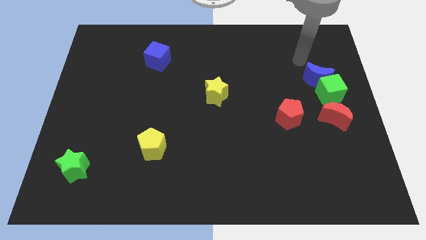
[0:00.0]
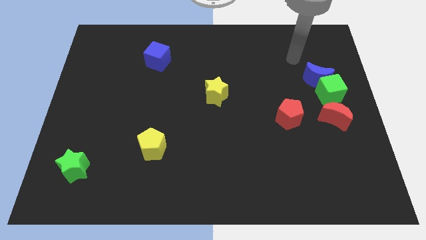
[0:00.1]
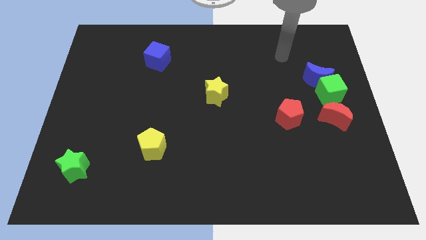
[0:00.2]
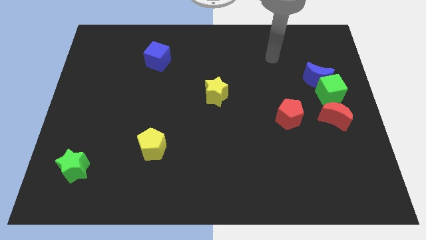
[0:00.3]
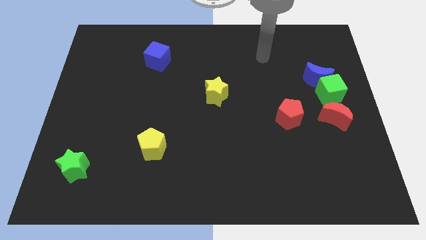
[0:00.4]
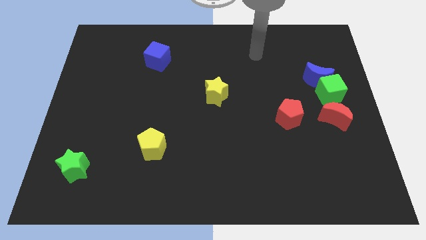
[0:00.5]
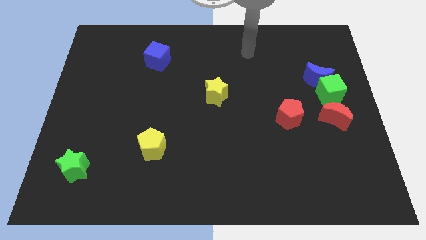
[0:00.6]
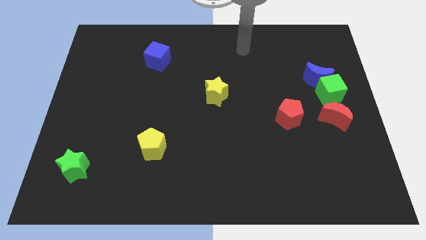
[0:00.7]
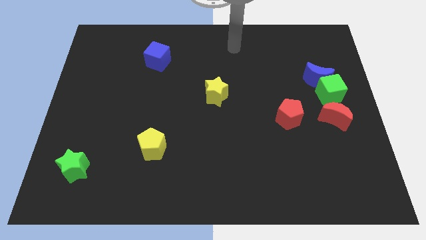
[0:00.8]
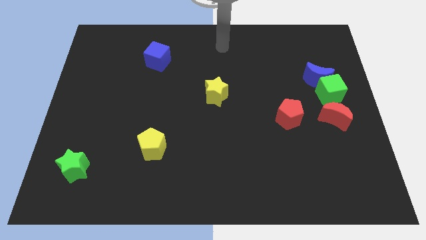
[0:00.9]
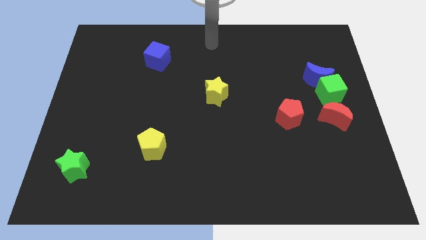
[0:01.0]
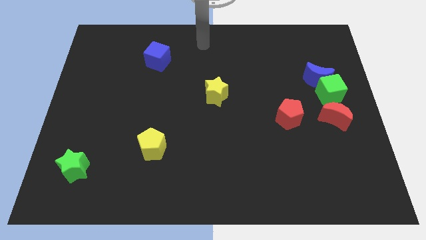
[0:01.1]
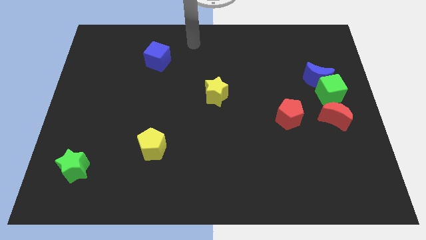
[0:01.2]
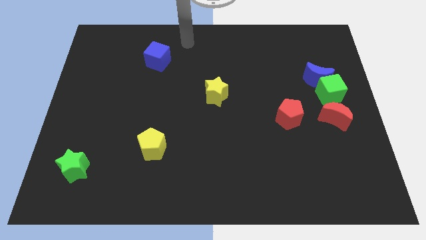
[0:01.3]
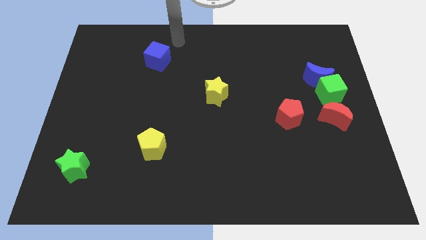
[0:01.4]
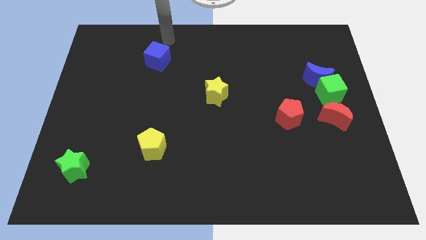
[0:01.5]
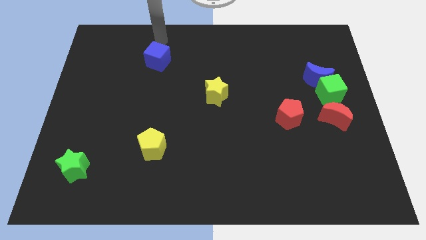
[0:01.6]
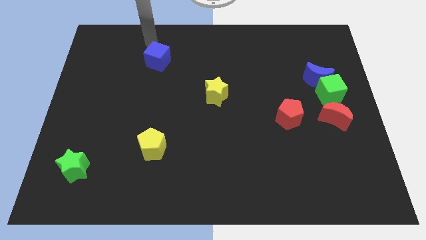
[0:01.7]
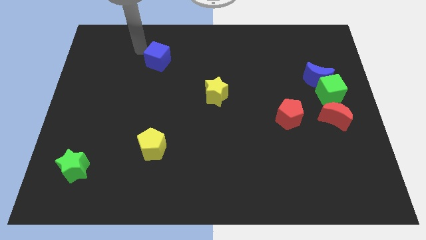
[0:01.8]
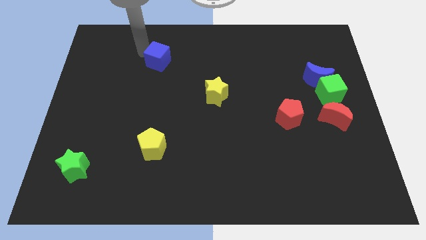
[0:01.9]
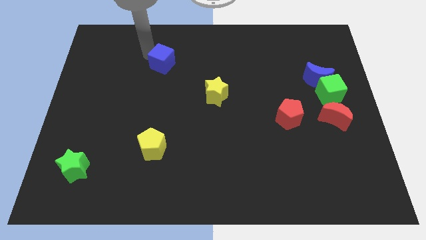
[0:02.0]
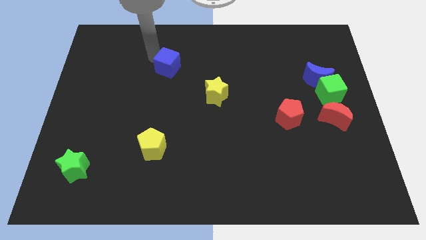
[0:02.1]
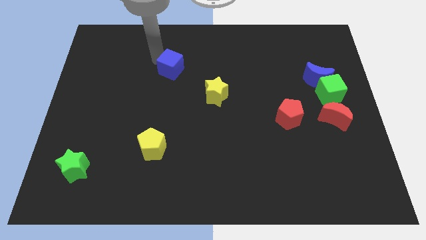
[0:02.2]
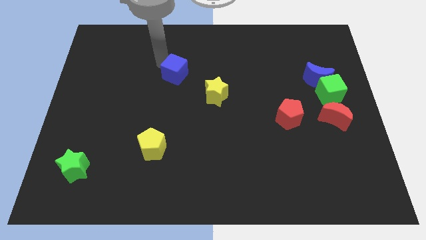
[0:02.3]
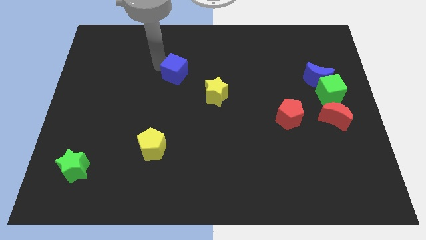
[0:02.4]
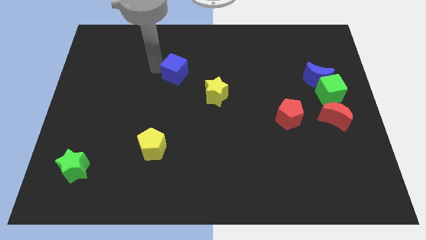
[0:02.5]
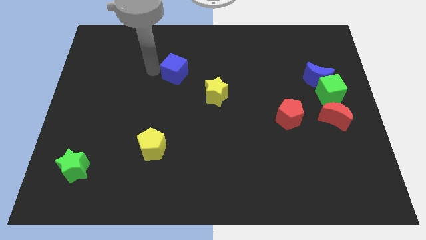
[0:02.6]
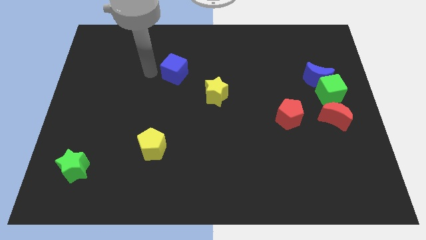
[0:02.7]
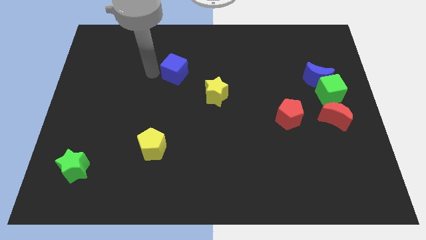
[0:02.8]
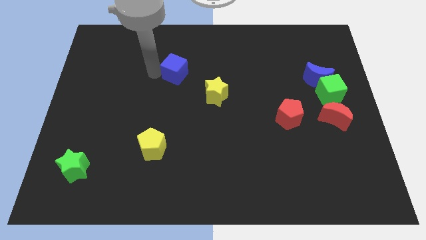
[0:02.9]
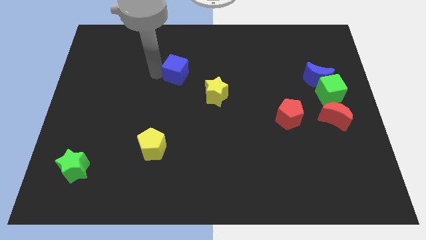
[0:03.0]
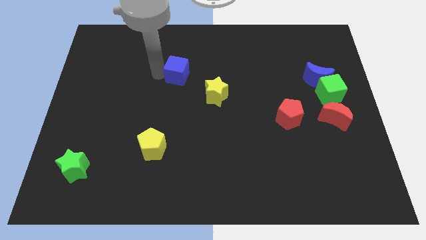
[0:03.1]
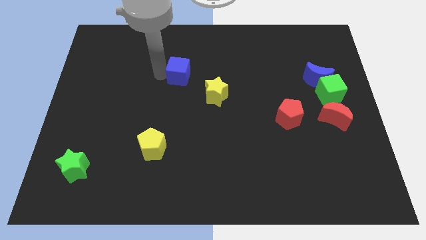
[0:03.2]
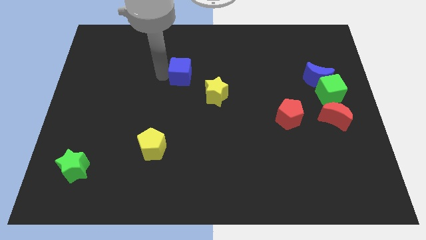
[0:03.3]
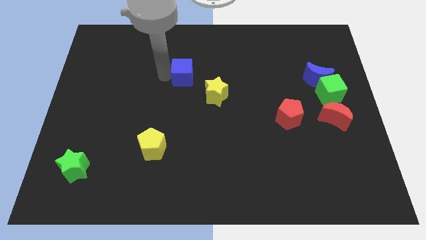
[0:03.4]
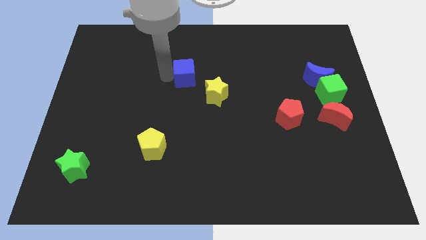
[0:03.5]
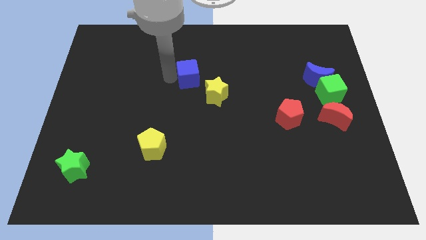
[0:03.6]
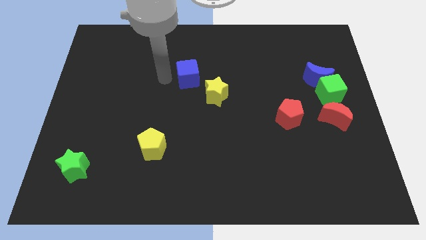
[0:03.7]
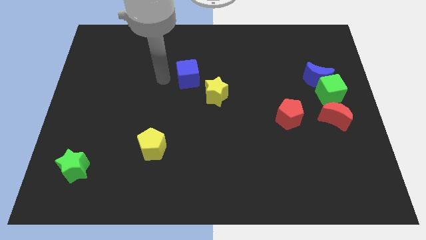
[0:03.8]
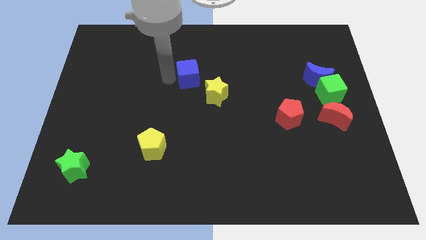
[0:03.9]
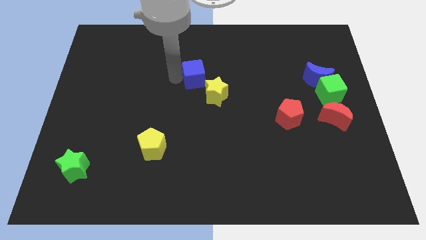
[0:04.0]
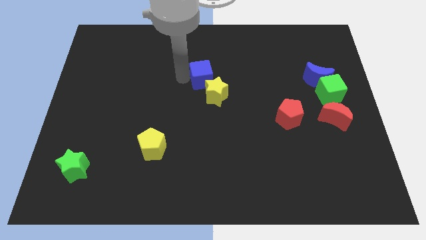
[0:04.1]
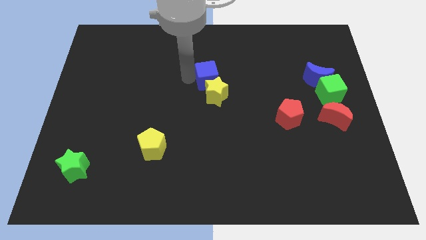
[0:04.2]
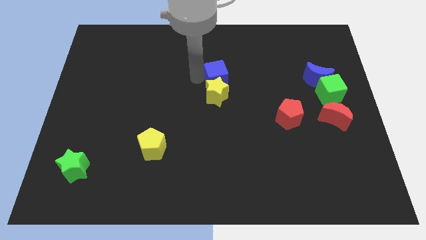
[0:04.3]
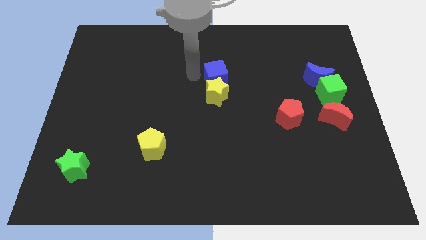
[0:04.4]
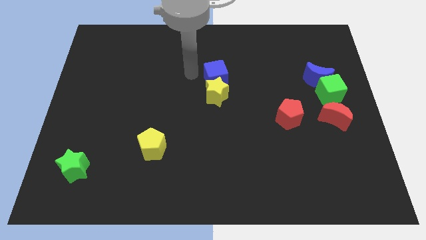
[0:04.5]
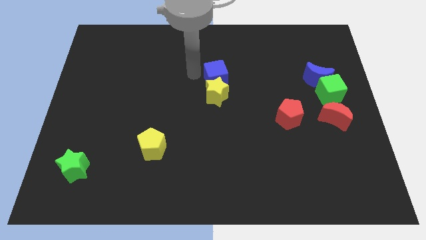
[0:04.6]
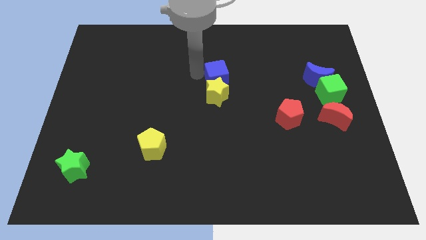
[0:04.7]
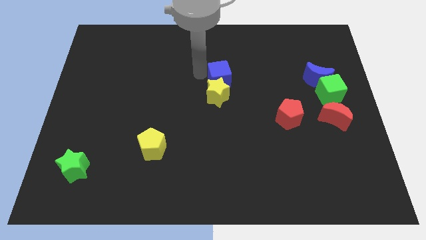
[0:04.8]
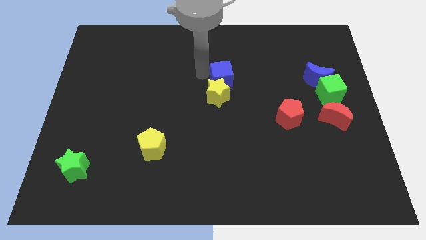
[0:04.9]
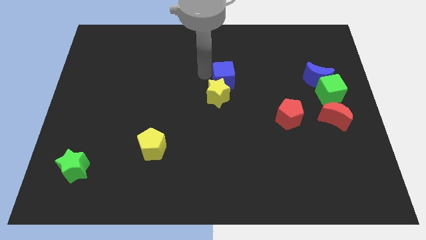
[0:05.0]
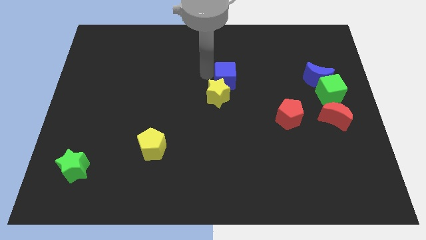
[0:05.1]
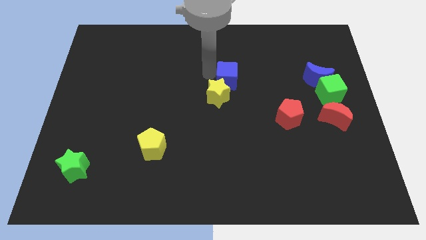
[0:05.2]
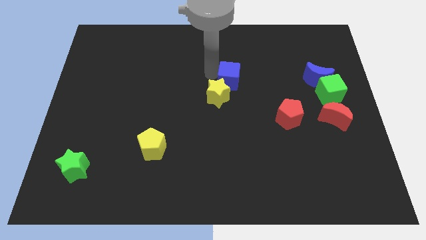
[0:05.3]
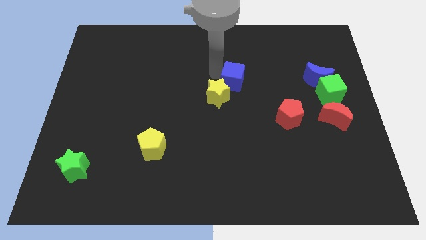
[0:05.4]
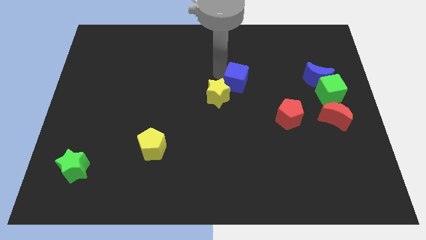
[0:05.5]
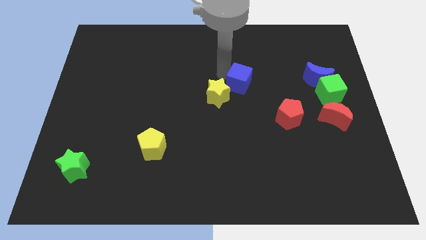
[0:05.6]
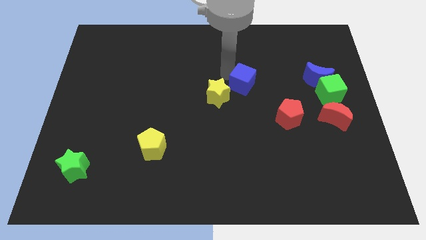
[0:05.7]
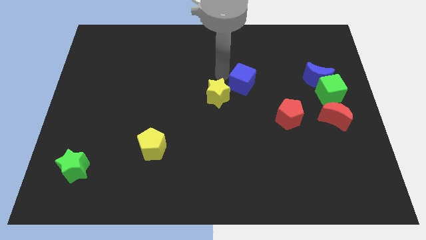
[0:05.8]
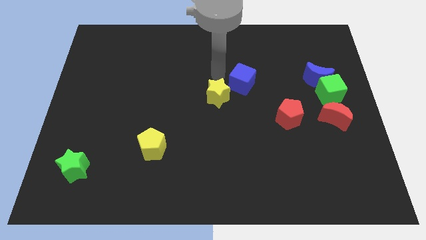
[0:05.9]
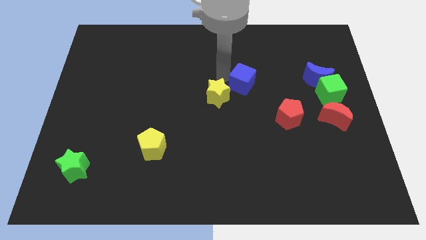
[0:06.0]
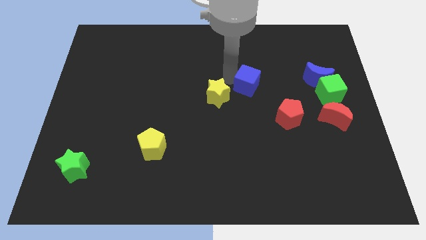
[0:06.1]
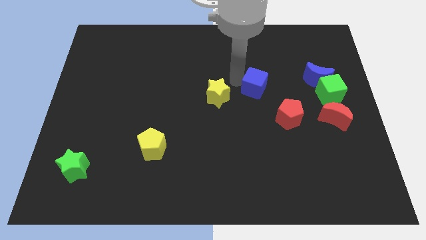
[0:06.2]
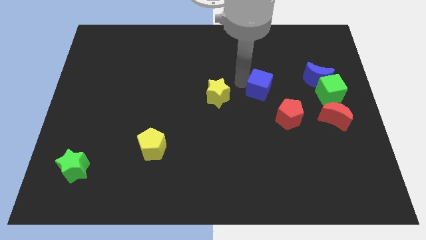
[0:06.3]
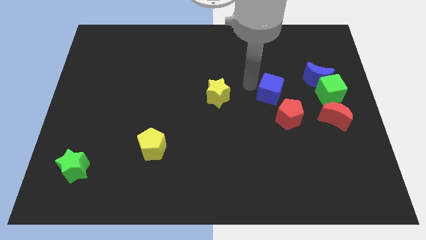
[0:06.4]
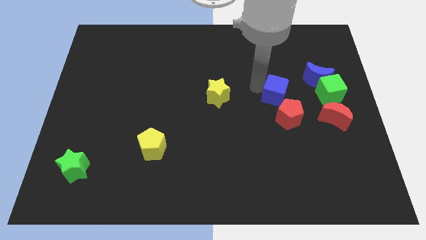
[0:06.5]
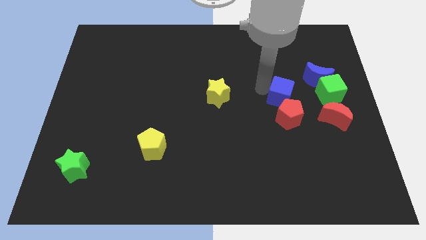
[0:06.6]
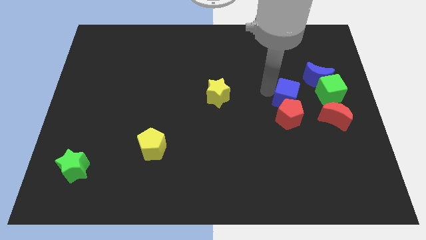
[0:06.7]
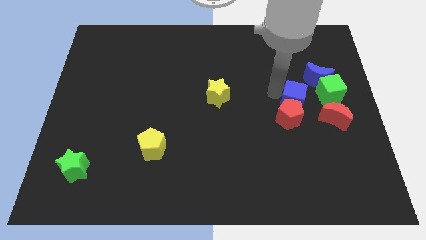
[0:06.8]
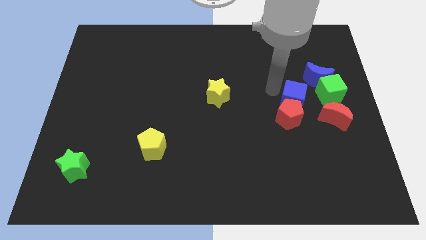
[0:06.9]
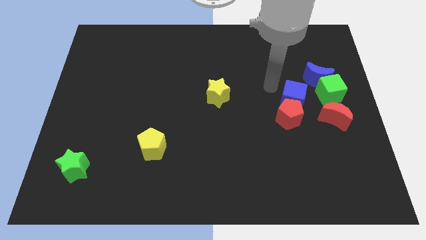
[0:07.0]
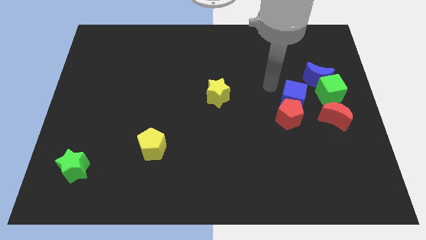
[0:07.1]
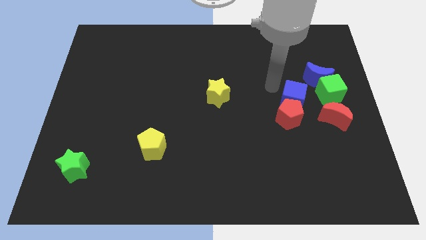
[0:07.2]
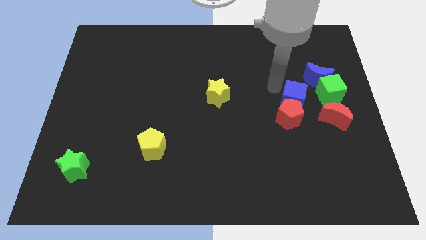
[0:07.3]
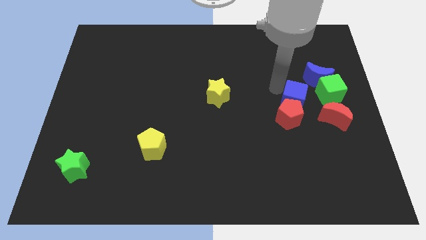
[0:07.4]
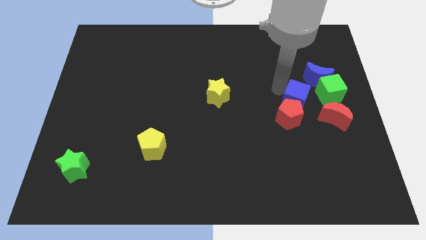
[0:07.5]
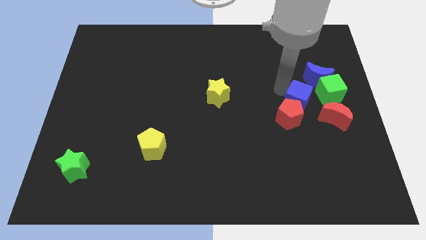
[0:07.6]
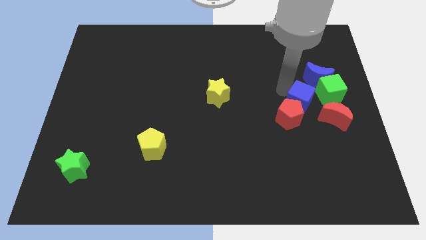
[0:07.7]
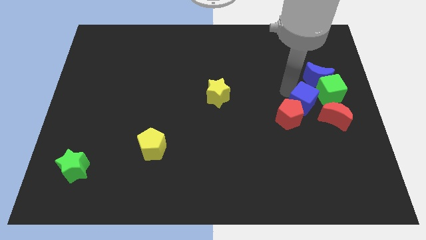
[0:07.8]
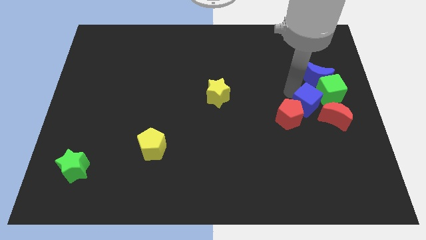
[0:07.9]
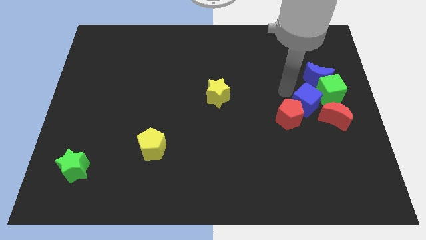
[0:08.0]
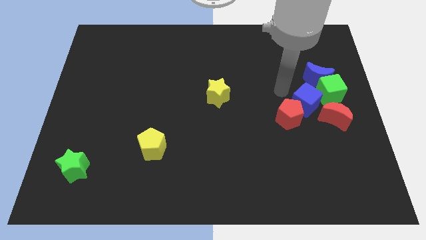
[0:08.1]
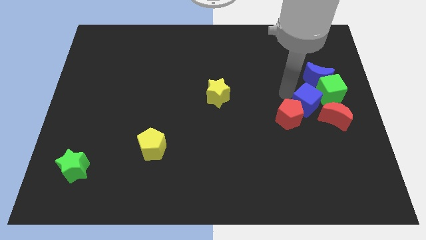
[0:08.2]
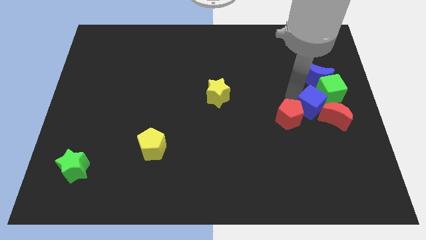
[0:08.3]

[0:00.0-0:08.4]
put the blue cube next to the red moon
